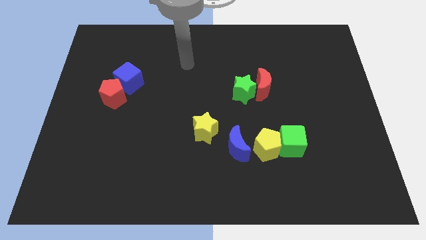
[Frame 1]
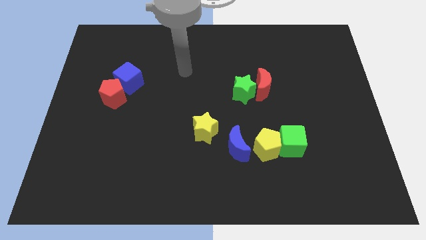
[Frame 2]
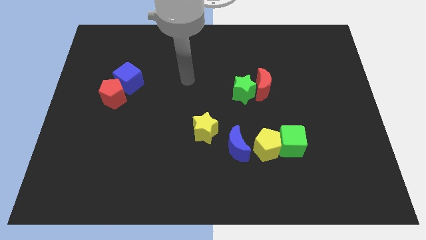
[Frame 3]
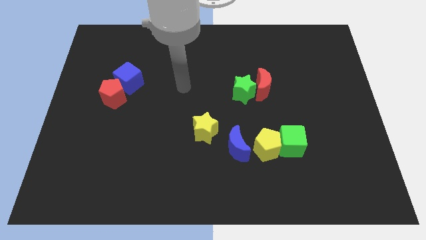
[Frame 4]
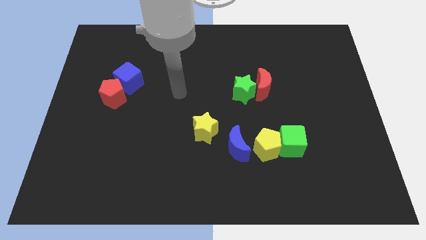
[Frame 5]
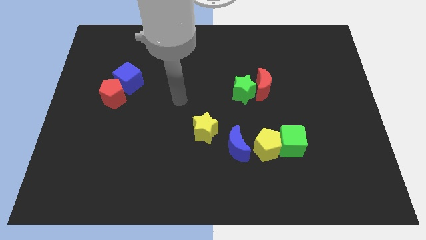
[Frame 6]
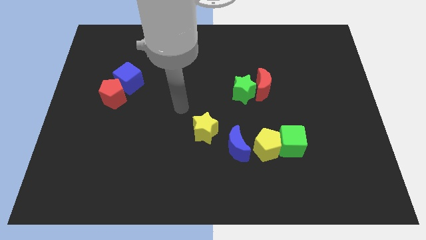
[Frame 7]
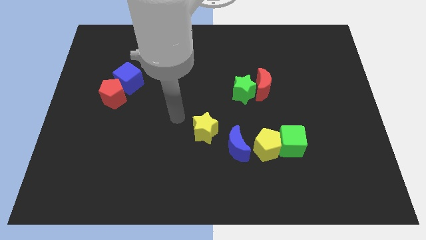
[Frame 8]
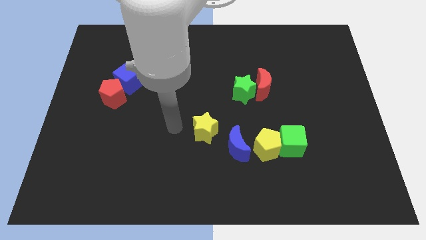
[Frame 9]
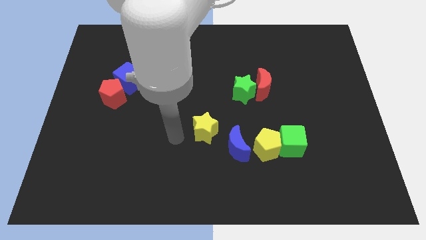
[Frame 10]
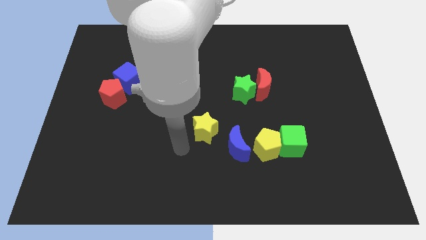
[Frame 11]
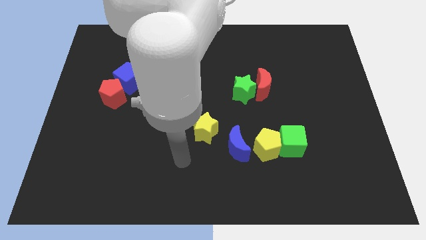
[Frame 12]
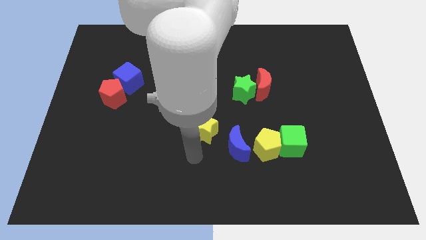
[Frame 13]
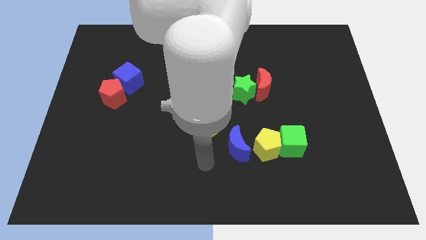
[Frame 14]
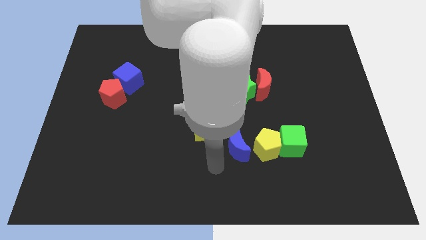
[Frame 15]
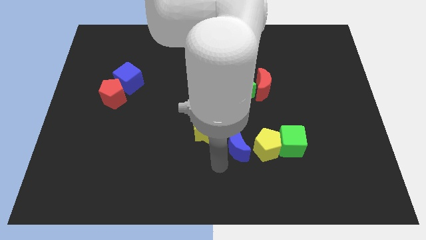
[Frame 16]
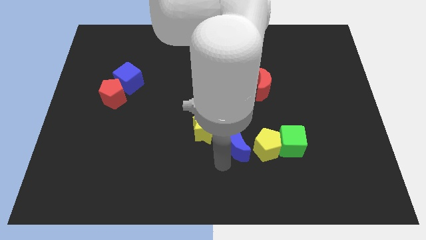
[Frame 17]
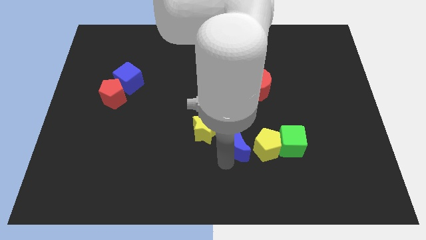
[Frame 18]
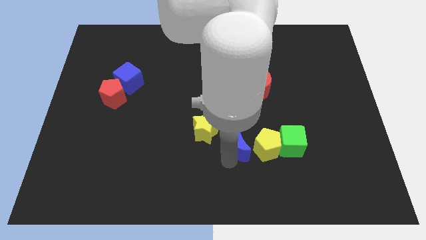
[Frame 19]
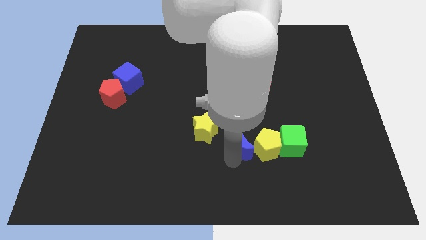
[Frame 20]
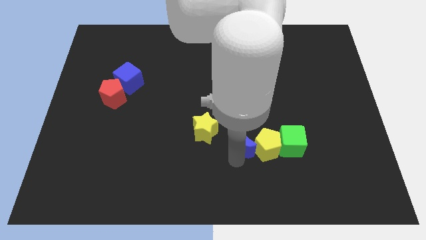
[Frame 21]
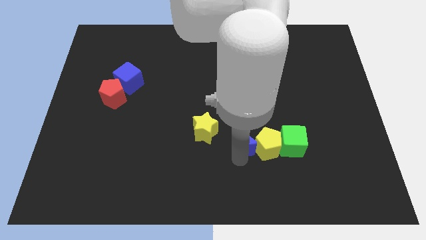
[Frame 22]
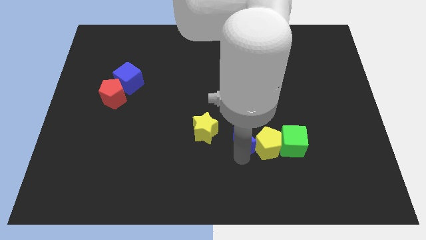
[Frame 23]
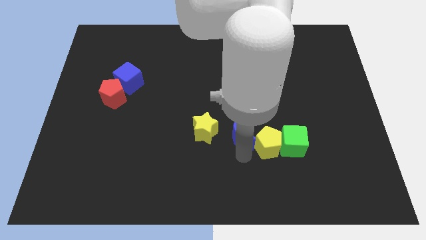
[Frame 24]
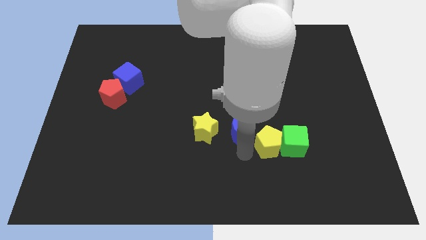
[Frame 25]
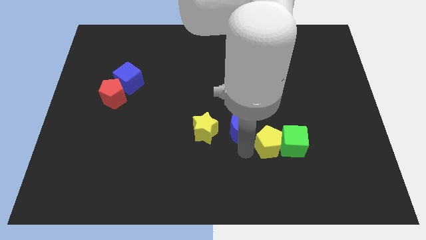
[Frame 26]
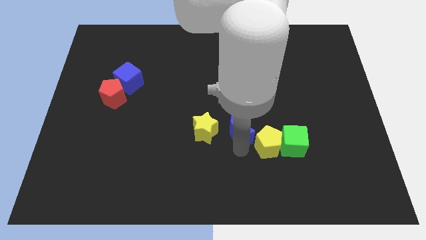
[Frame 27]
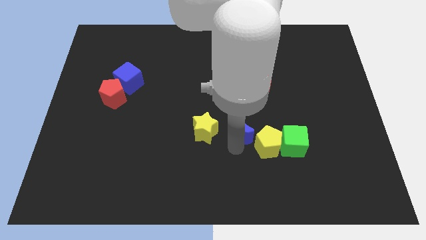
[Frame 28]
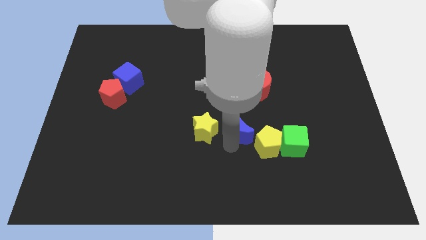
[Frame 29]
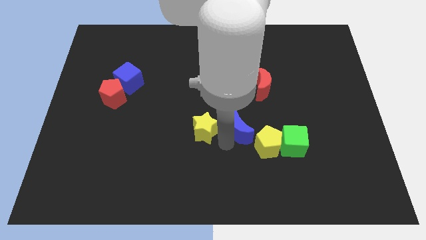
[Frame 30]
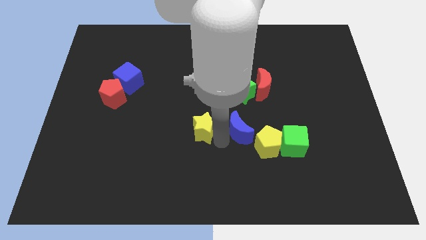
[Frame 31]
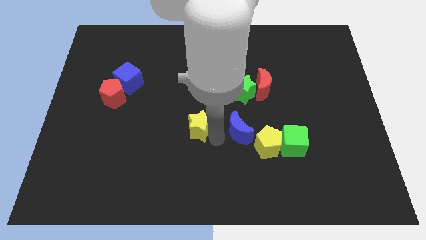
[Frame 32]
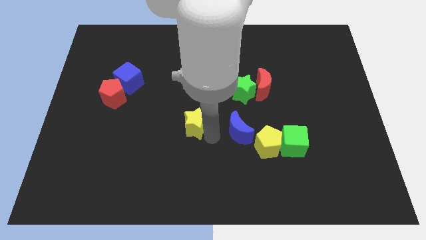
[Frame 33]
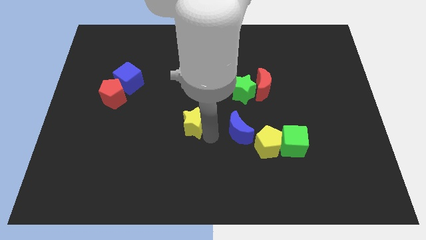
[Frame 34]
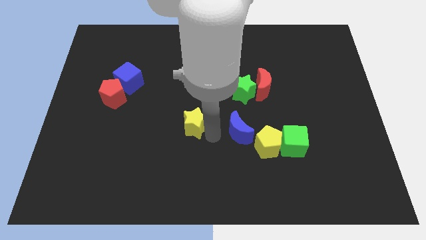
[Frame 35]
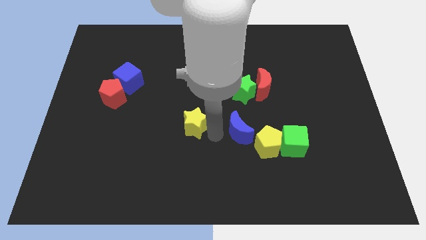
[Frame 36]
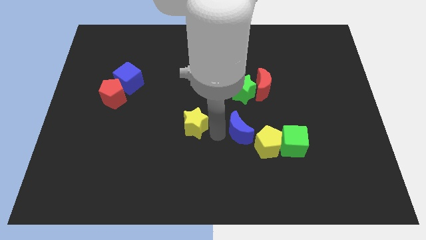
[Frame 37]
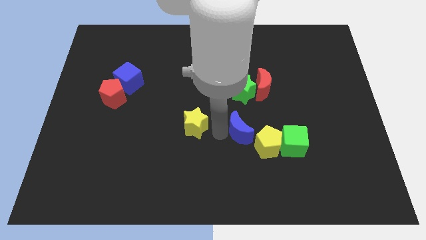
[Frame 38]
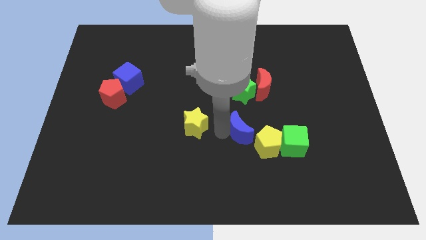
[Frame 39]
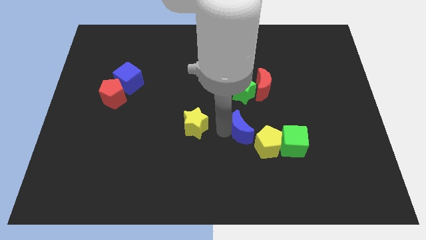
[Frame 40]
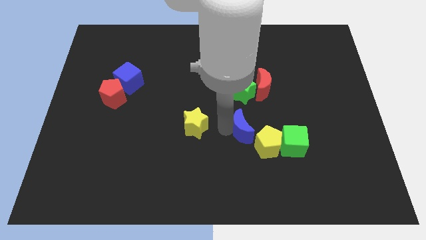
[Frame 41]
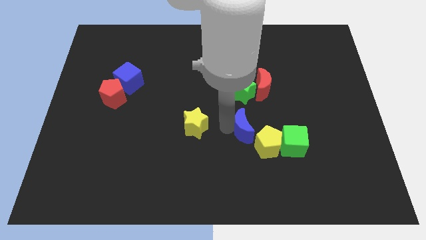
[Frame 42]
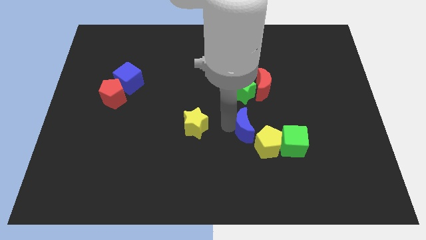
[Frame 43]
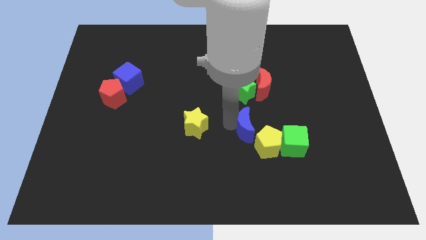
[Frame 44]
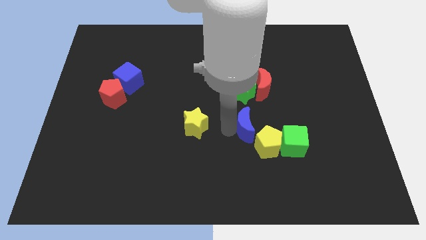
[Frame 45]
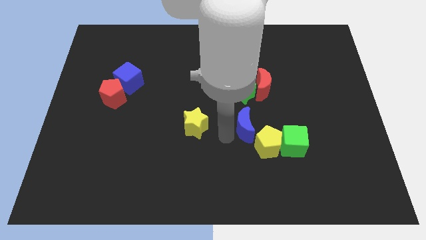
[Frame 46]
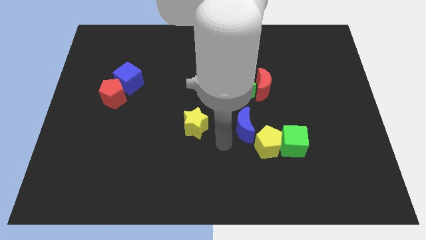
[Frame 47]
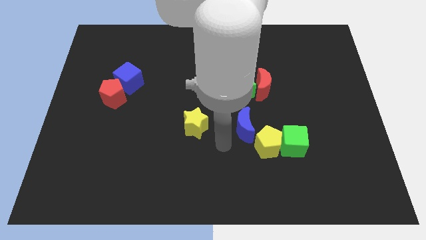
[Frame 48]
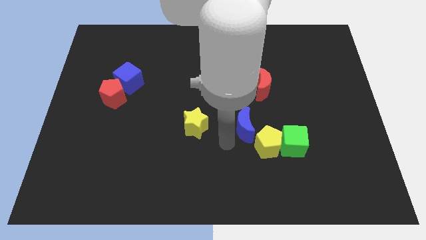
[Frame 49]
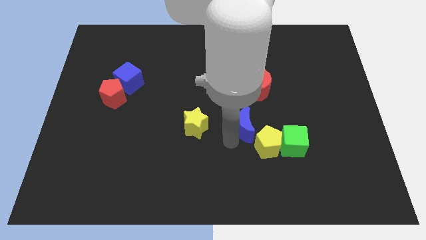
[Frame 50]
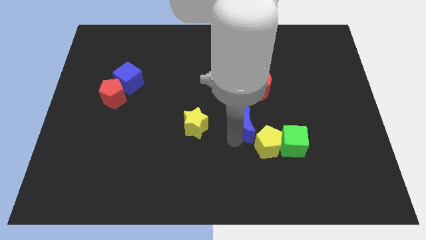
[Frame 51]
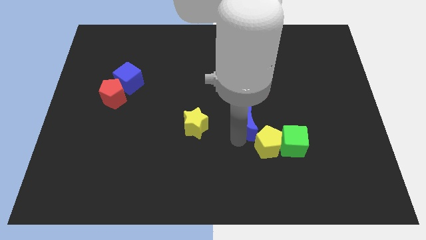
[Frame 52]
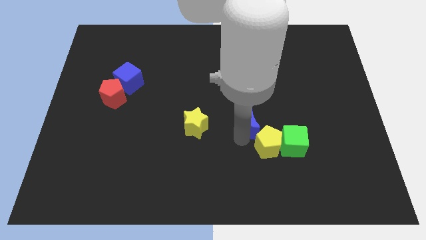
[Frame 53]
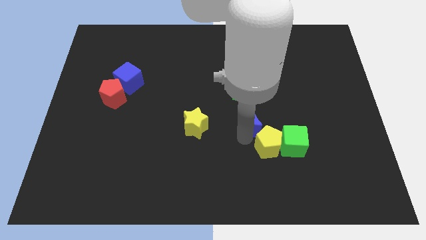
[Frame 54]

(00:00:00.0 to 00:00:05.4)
move the blue moon diagonally up and to the right a little

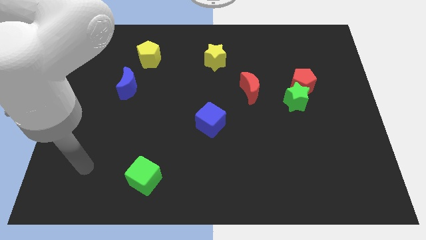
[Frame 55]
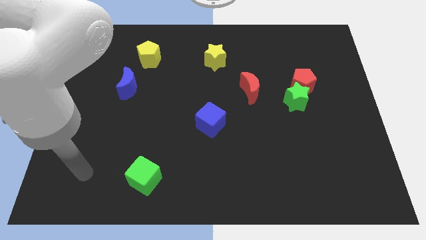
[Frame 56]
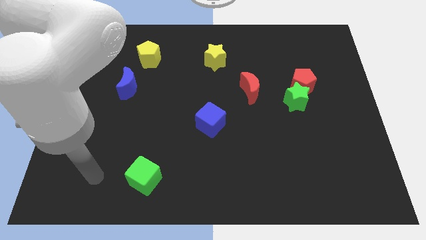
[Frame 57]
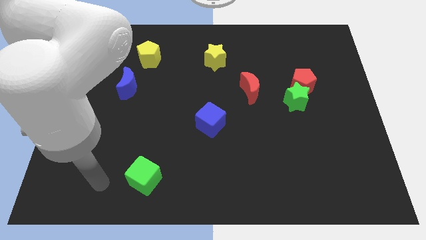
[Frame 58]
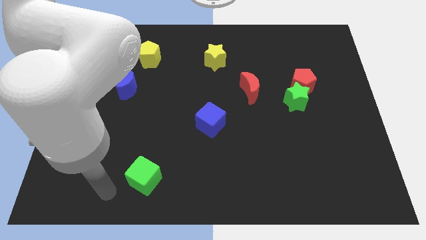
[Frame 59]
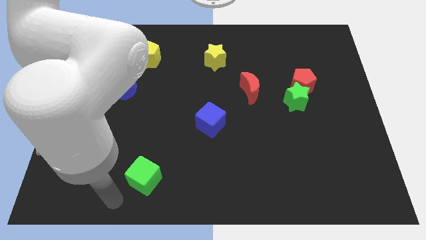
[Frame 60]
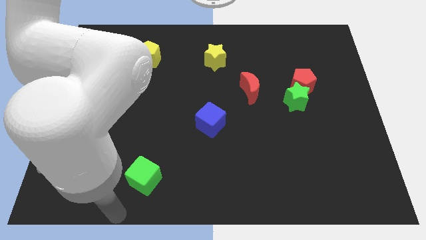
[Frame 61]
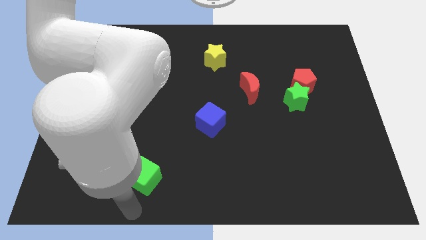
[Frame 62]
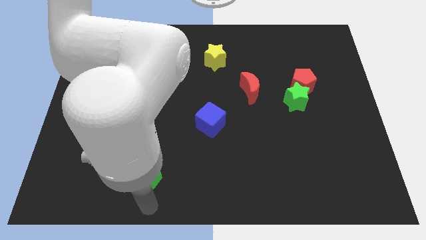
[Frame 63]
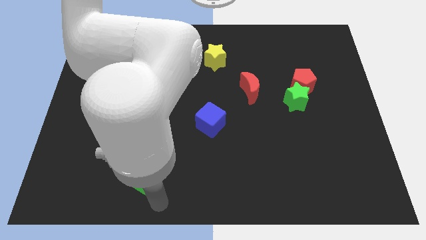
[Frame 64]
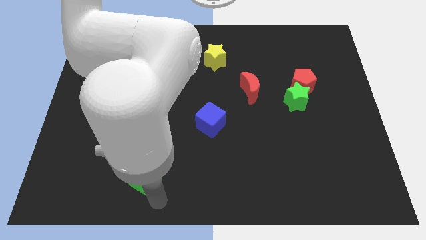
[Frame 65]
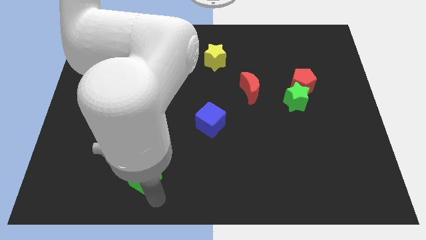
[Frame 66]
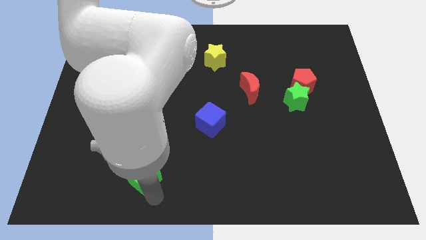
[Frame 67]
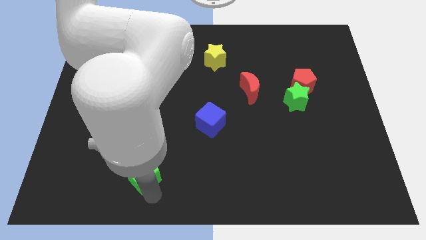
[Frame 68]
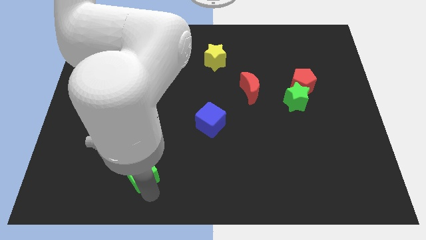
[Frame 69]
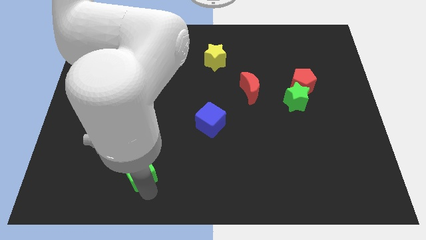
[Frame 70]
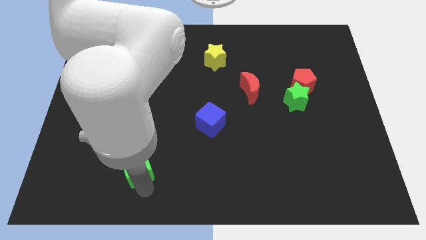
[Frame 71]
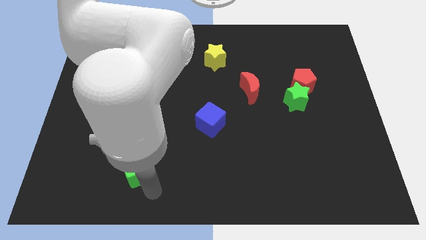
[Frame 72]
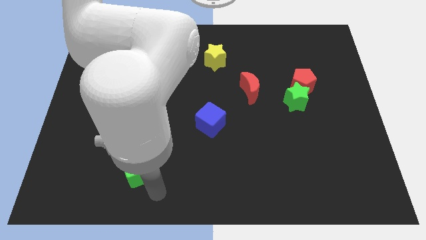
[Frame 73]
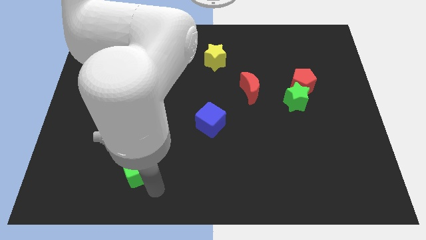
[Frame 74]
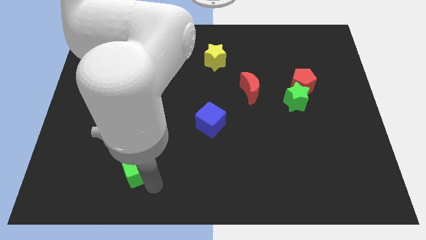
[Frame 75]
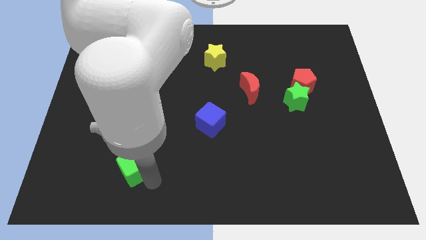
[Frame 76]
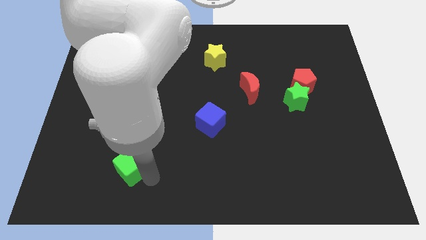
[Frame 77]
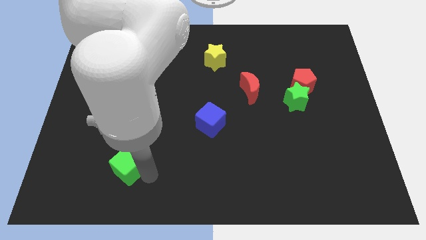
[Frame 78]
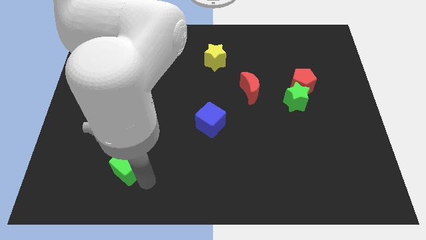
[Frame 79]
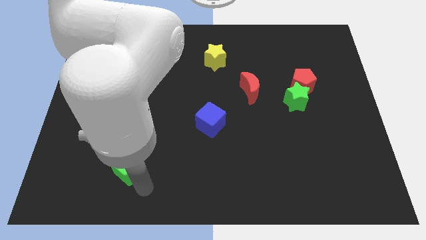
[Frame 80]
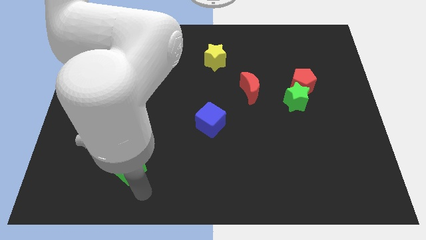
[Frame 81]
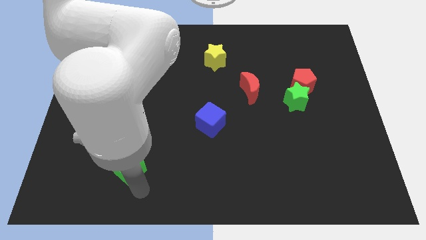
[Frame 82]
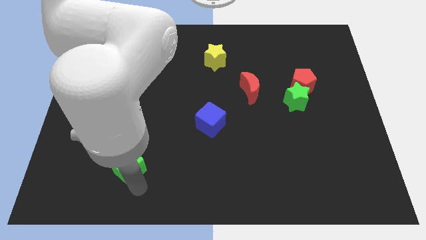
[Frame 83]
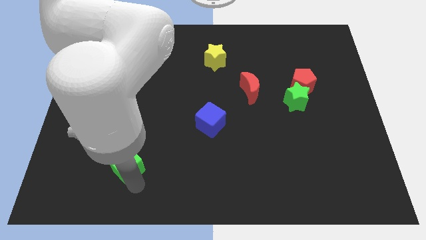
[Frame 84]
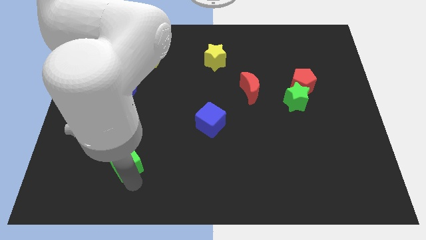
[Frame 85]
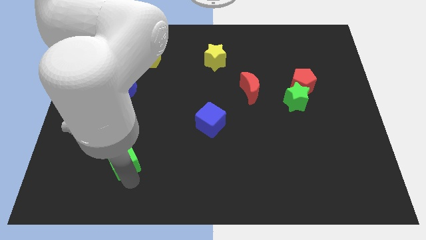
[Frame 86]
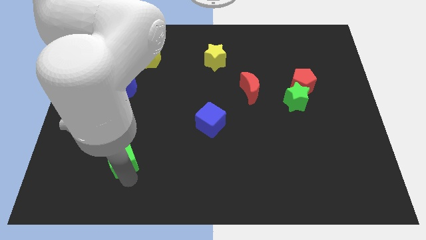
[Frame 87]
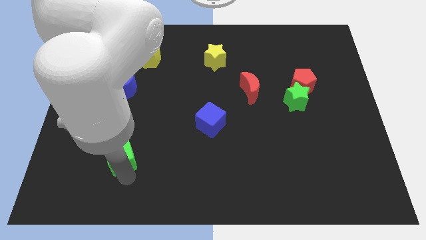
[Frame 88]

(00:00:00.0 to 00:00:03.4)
push the green cube up and then left slightly
